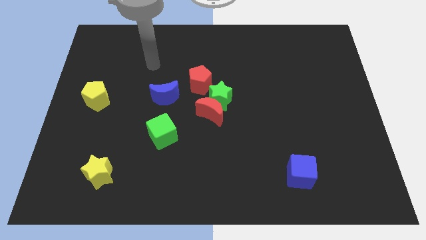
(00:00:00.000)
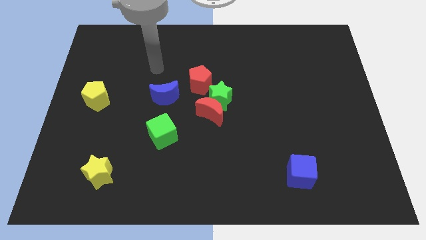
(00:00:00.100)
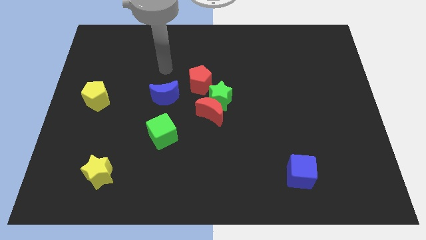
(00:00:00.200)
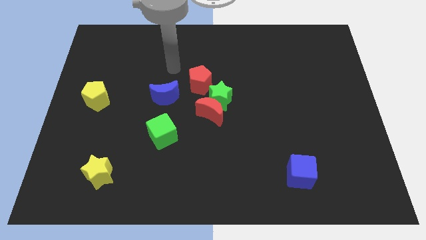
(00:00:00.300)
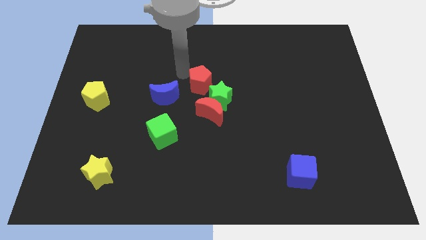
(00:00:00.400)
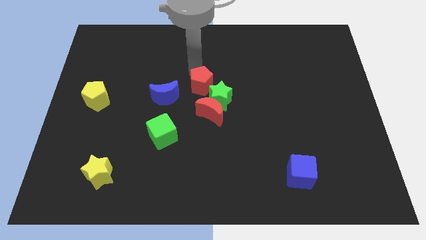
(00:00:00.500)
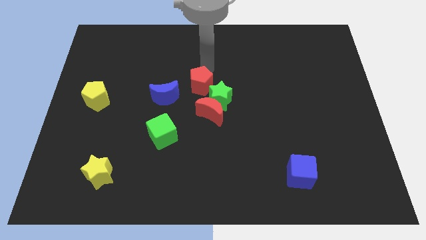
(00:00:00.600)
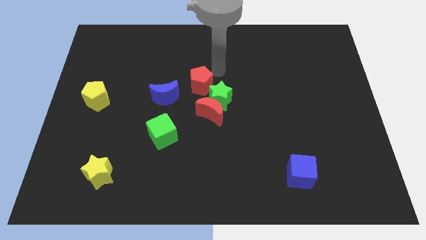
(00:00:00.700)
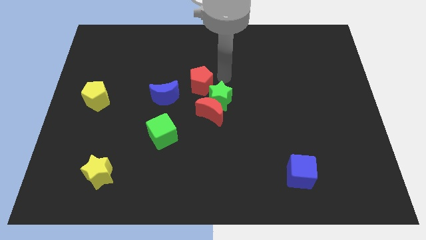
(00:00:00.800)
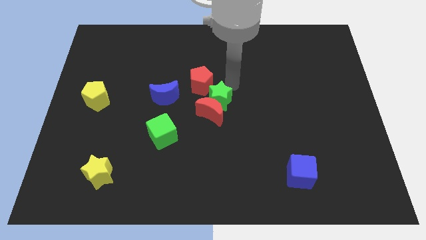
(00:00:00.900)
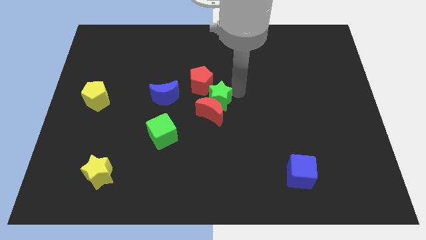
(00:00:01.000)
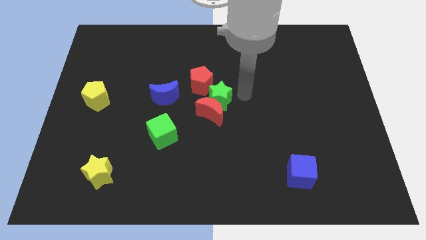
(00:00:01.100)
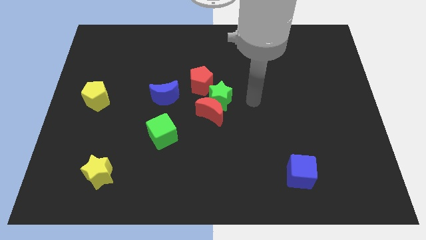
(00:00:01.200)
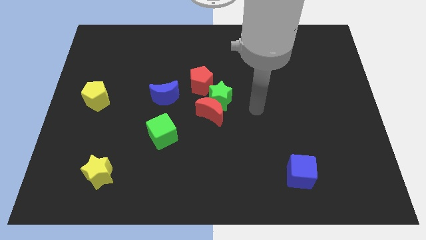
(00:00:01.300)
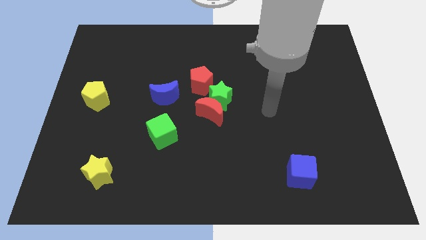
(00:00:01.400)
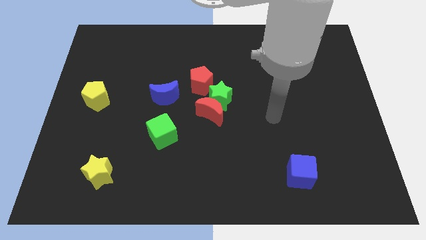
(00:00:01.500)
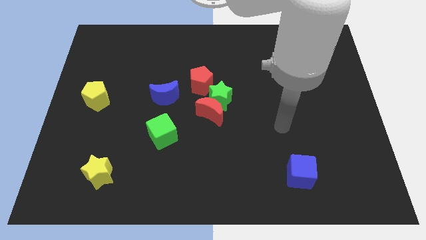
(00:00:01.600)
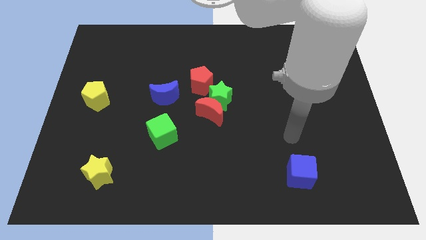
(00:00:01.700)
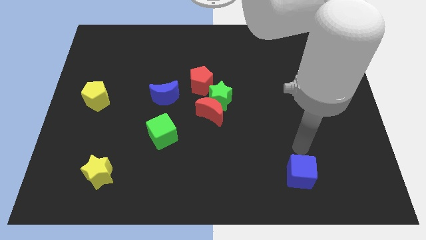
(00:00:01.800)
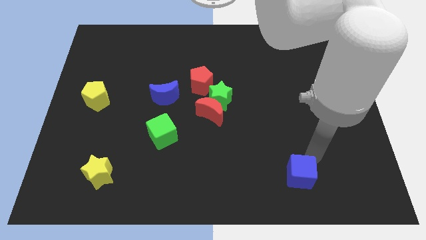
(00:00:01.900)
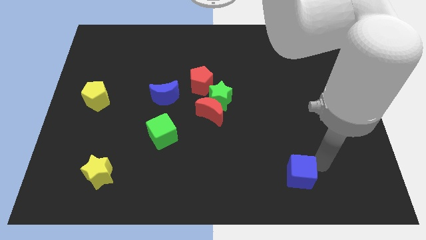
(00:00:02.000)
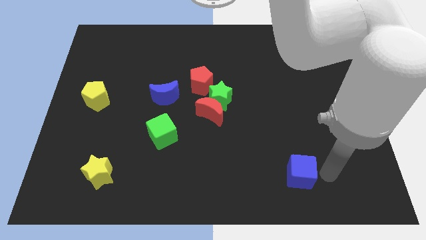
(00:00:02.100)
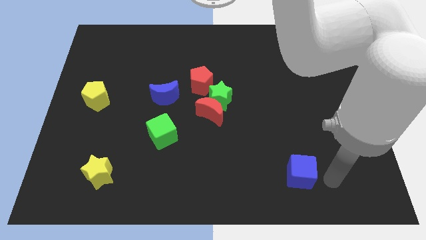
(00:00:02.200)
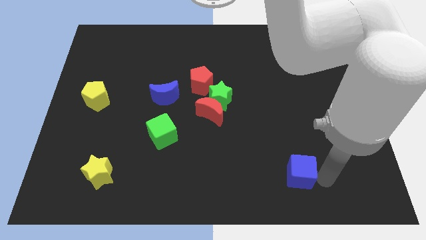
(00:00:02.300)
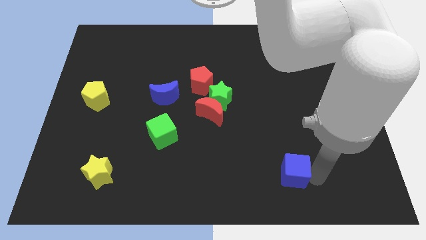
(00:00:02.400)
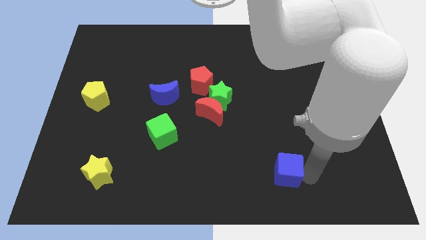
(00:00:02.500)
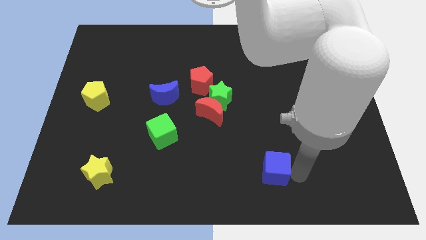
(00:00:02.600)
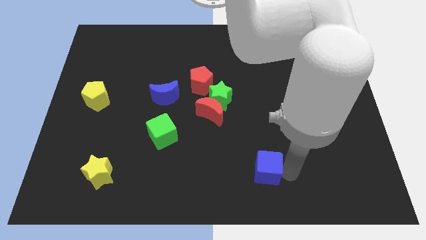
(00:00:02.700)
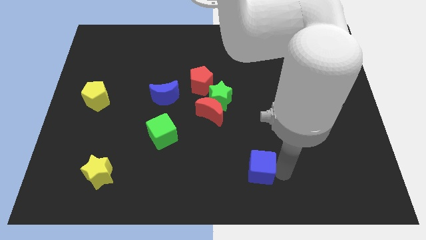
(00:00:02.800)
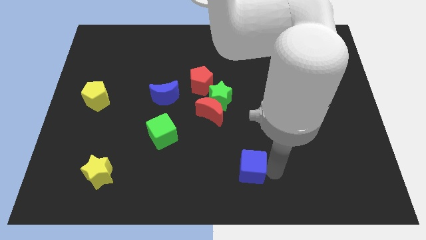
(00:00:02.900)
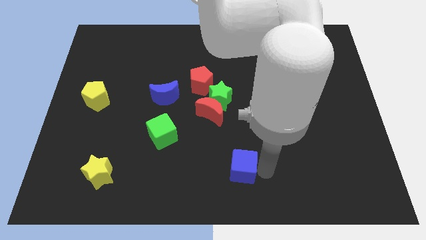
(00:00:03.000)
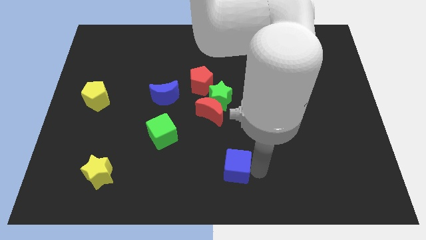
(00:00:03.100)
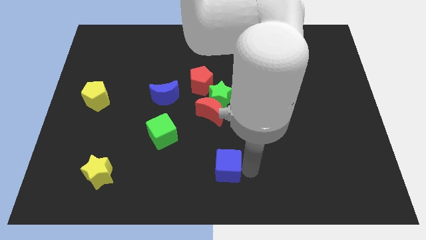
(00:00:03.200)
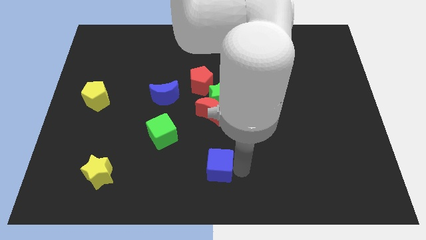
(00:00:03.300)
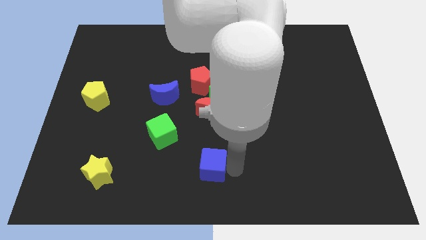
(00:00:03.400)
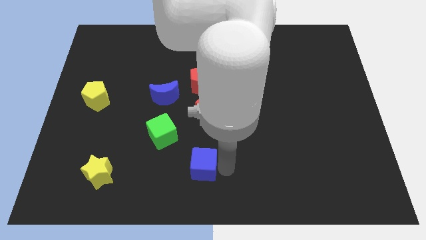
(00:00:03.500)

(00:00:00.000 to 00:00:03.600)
move the blue cube to the left

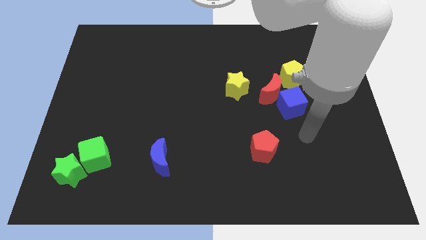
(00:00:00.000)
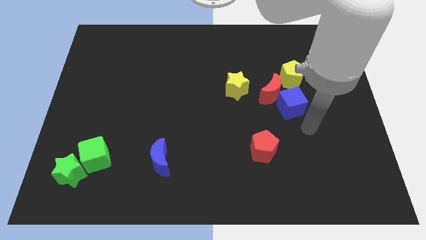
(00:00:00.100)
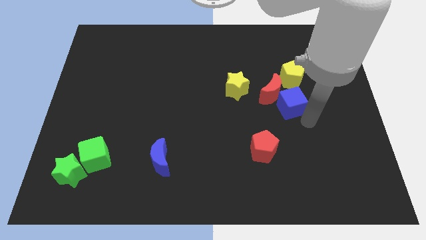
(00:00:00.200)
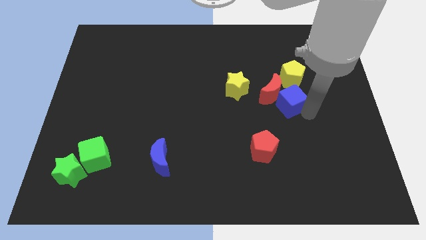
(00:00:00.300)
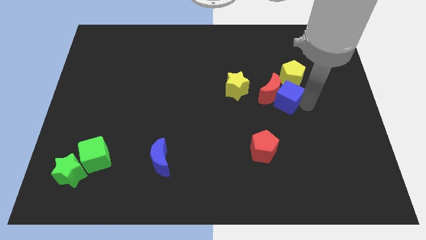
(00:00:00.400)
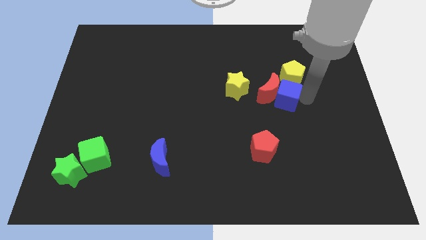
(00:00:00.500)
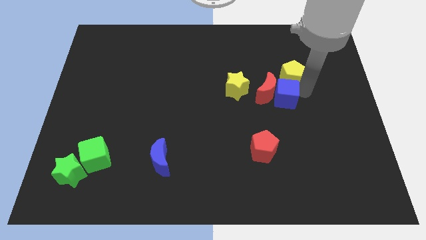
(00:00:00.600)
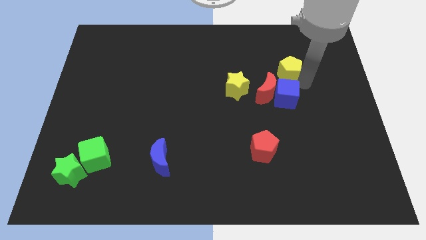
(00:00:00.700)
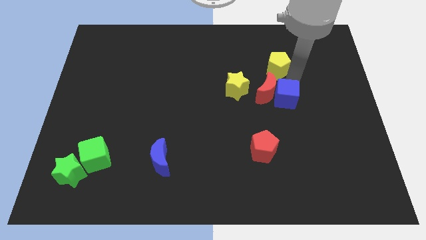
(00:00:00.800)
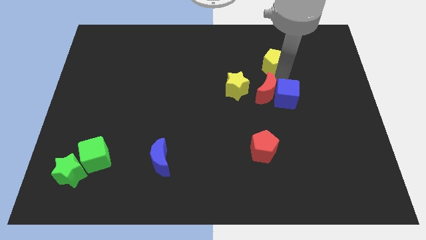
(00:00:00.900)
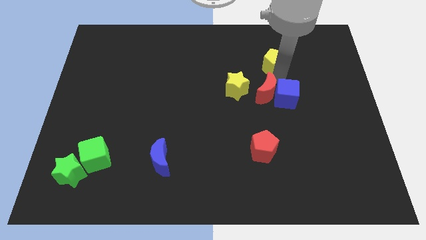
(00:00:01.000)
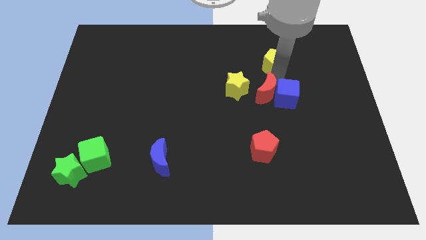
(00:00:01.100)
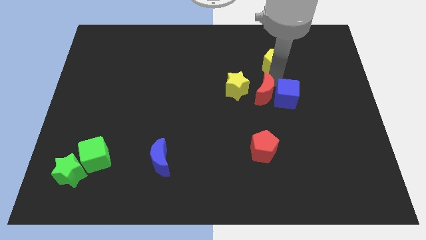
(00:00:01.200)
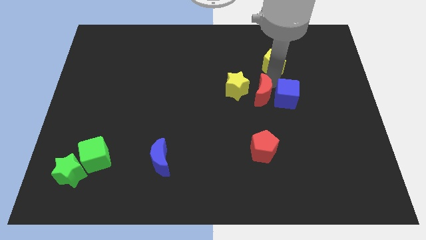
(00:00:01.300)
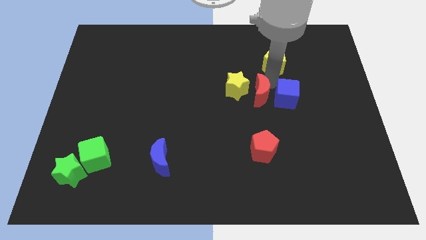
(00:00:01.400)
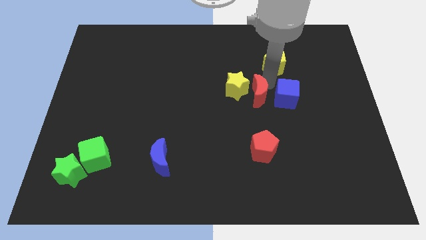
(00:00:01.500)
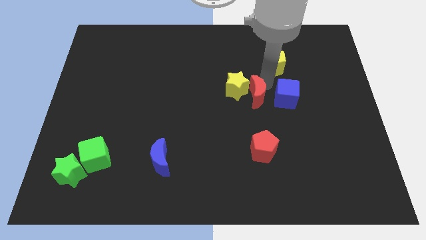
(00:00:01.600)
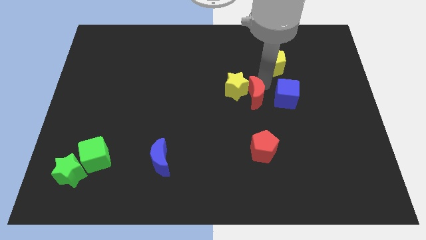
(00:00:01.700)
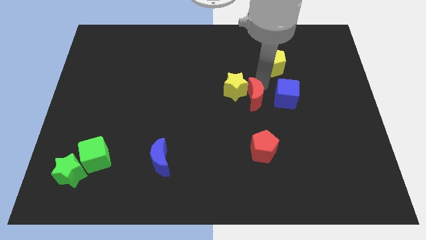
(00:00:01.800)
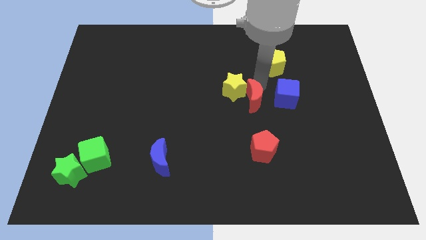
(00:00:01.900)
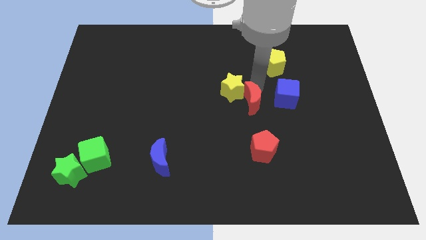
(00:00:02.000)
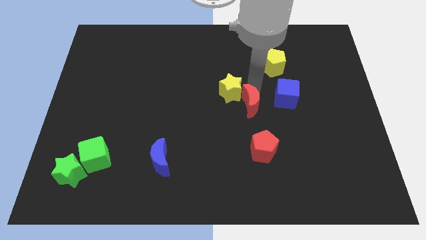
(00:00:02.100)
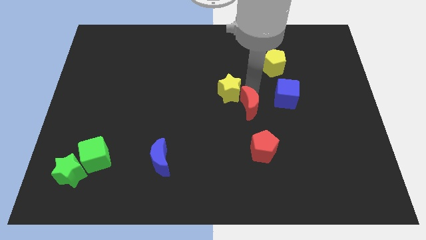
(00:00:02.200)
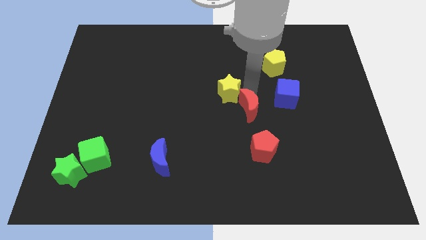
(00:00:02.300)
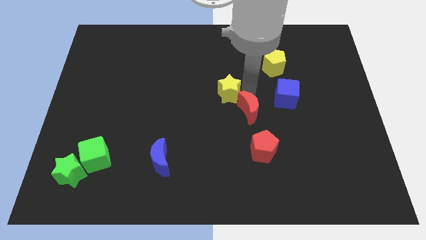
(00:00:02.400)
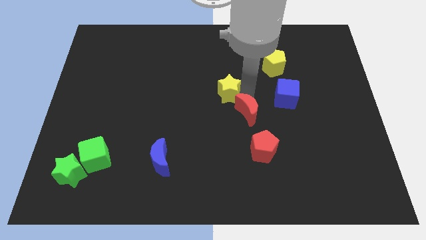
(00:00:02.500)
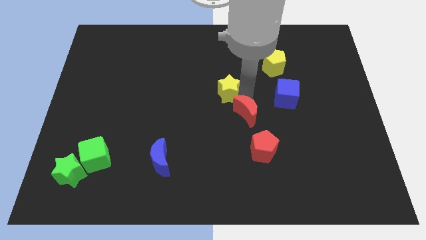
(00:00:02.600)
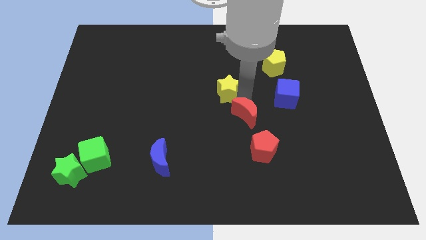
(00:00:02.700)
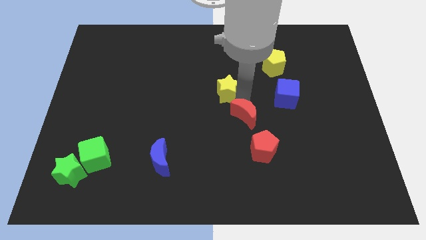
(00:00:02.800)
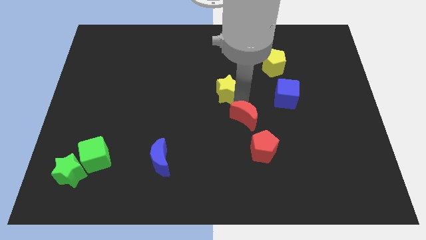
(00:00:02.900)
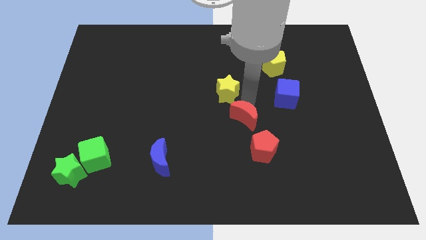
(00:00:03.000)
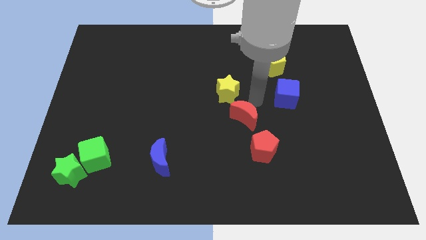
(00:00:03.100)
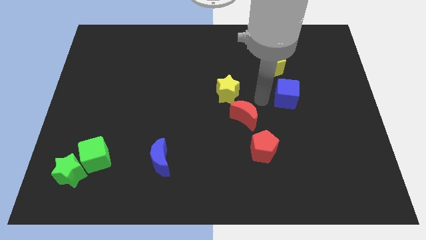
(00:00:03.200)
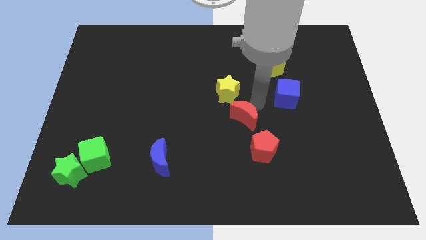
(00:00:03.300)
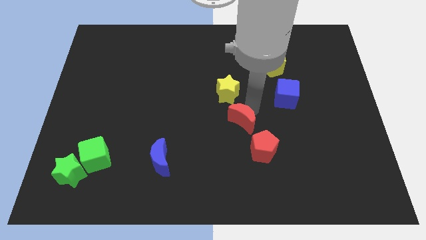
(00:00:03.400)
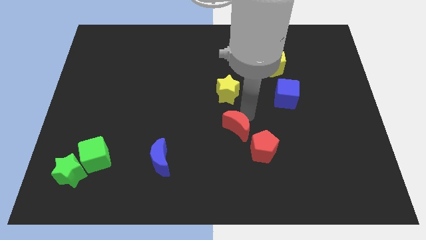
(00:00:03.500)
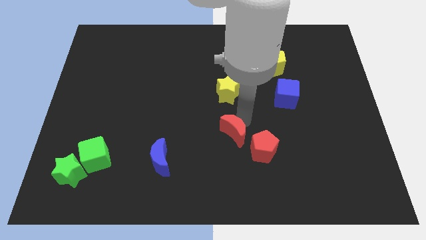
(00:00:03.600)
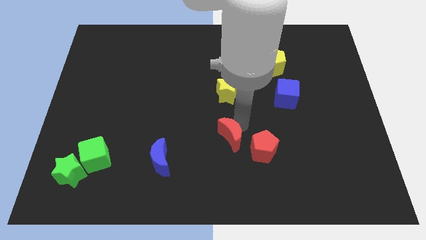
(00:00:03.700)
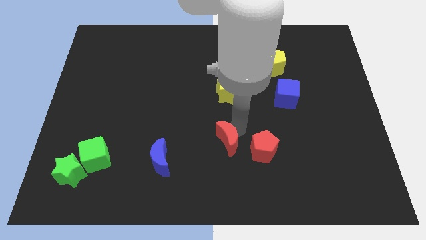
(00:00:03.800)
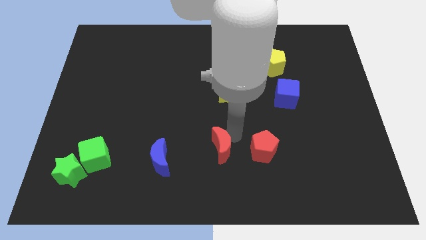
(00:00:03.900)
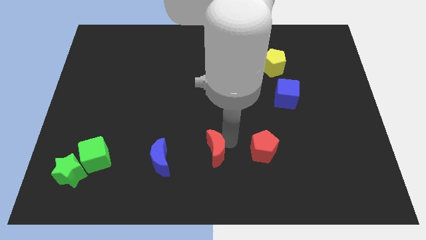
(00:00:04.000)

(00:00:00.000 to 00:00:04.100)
push the red moon diagonally downwards and left
